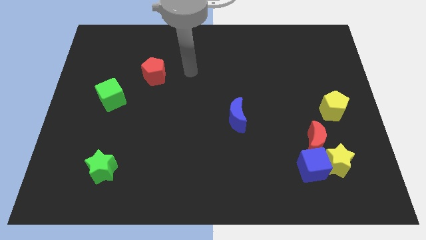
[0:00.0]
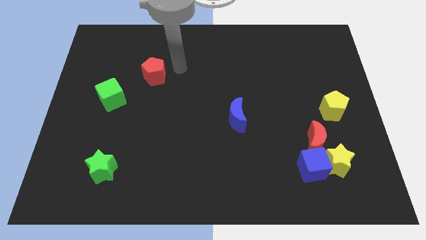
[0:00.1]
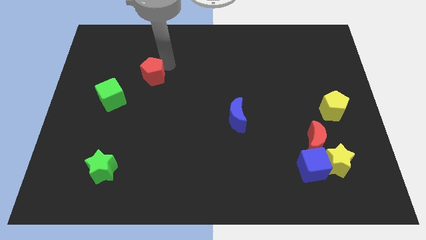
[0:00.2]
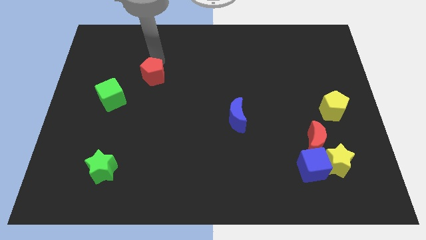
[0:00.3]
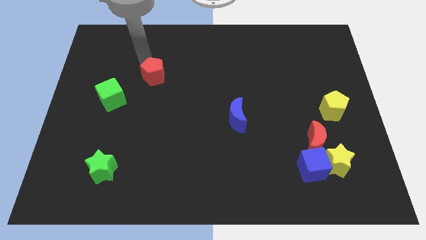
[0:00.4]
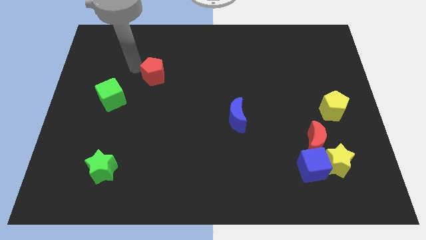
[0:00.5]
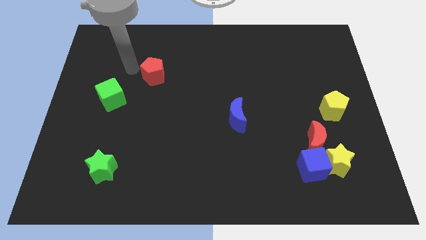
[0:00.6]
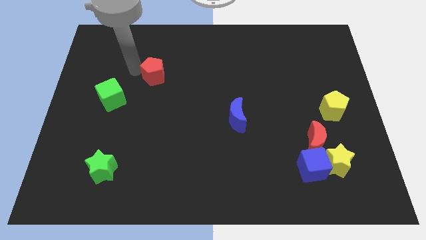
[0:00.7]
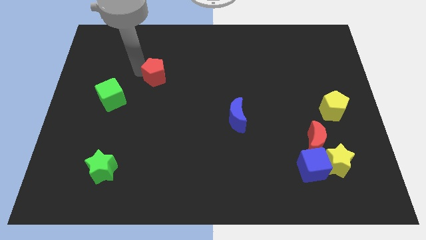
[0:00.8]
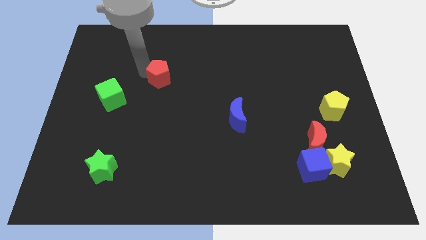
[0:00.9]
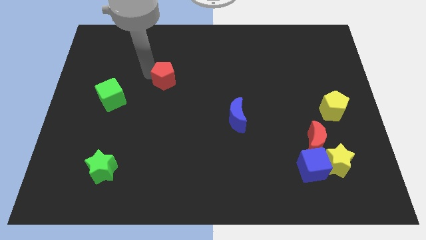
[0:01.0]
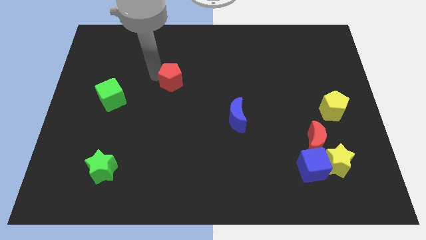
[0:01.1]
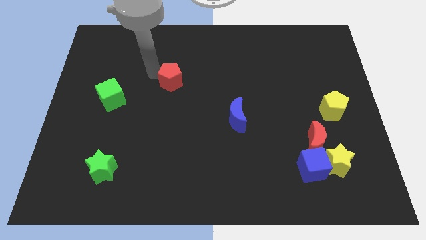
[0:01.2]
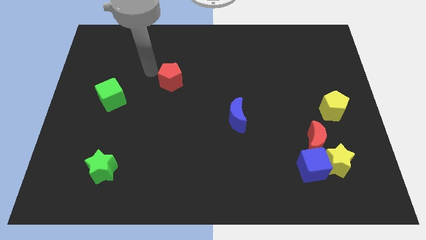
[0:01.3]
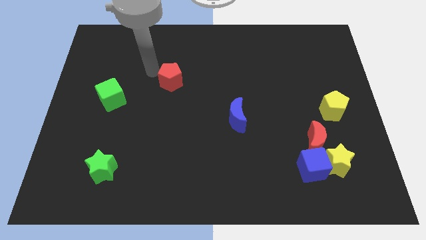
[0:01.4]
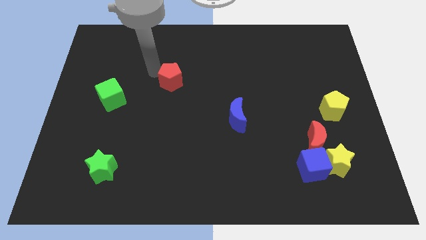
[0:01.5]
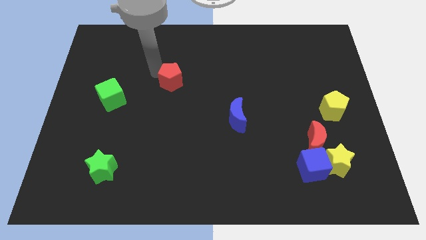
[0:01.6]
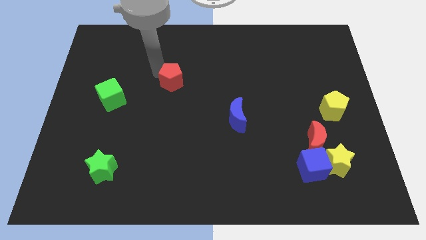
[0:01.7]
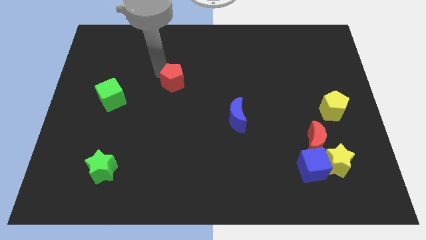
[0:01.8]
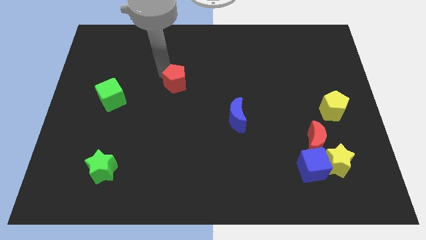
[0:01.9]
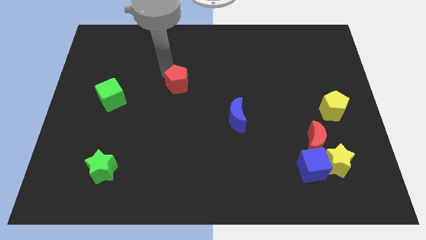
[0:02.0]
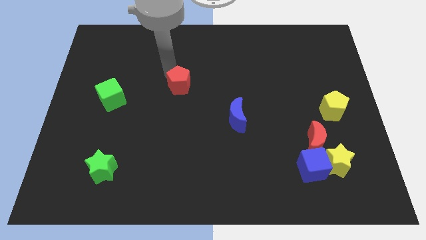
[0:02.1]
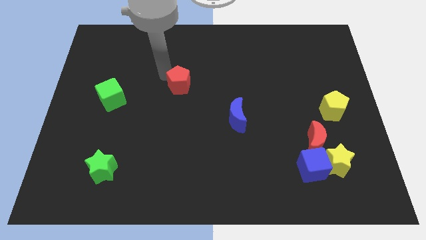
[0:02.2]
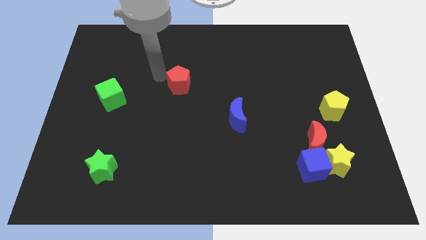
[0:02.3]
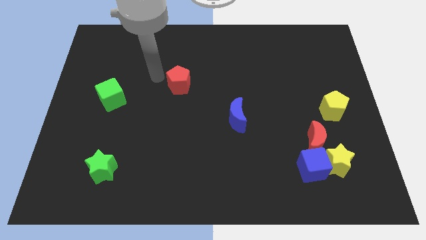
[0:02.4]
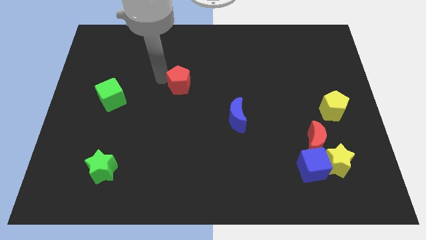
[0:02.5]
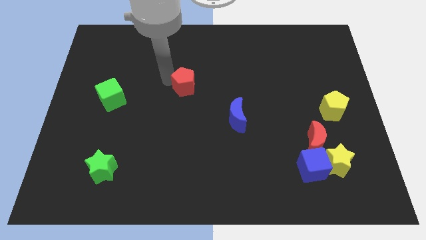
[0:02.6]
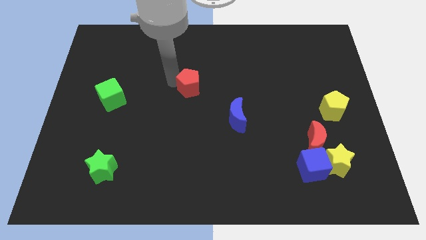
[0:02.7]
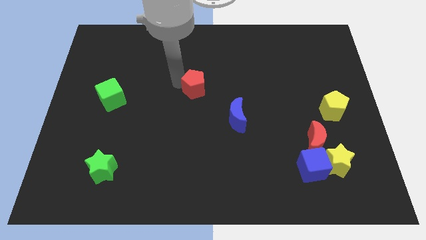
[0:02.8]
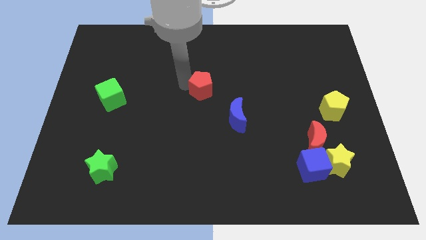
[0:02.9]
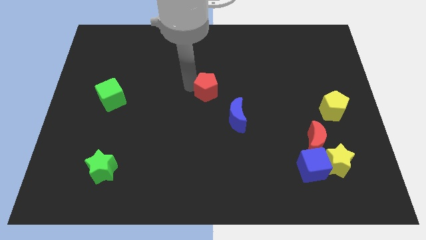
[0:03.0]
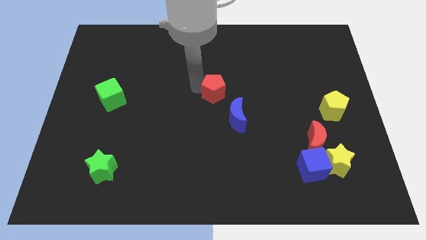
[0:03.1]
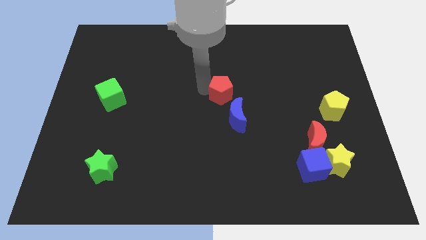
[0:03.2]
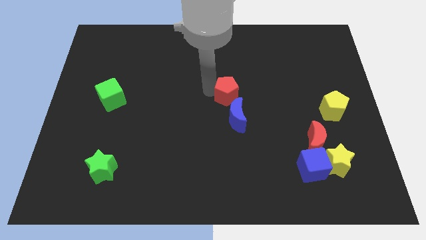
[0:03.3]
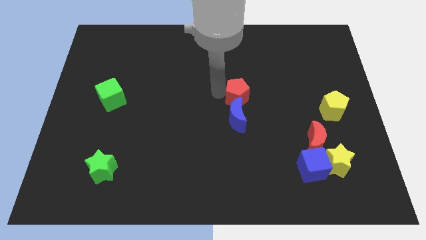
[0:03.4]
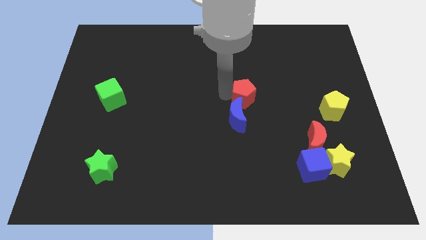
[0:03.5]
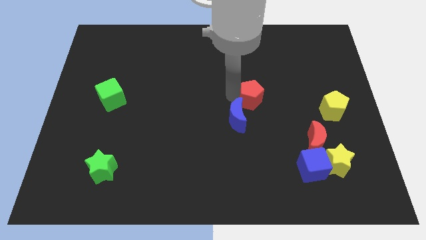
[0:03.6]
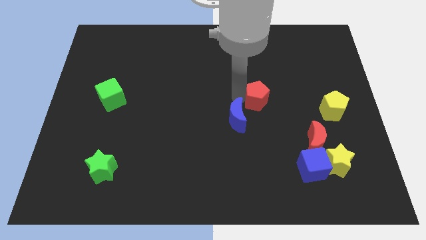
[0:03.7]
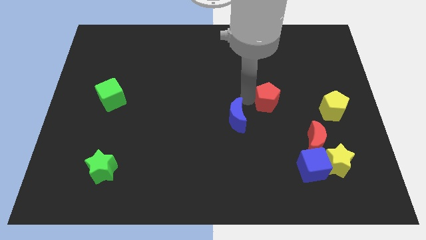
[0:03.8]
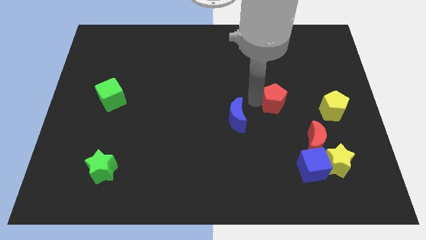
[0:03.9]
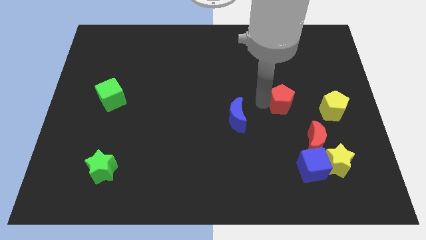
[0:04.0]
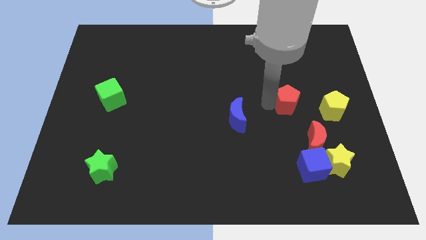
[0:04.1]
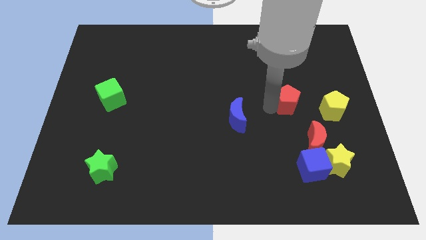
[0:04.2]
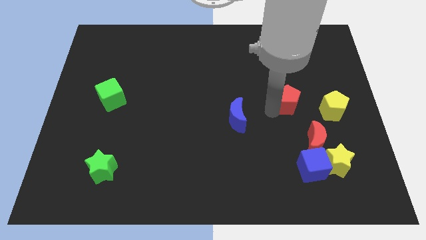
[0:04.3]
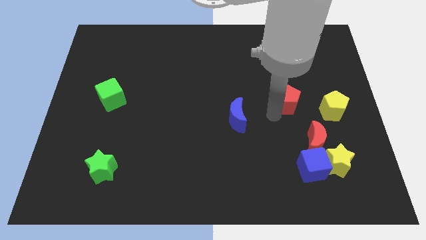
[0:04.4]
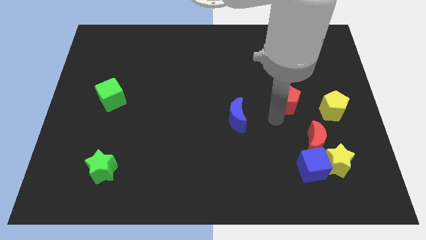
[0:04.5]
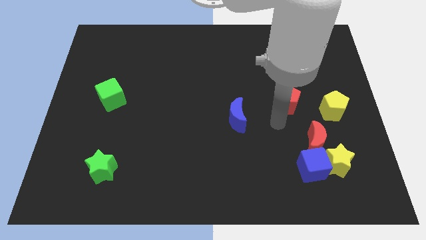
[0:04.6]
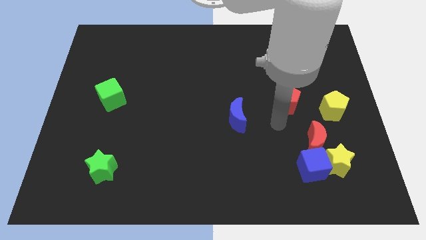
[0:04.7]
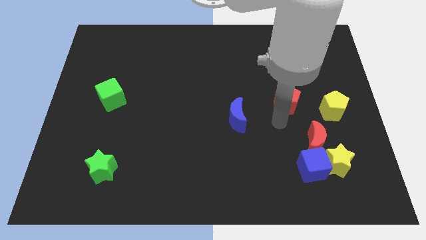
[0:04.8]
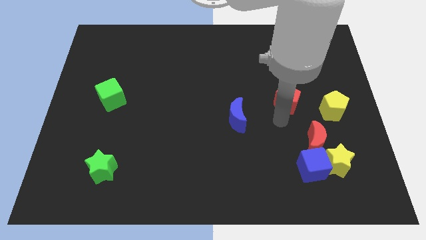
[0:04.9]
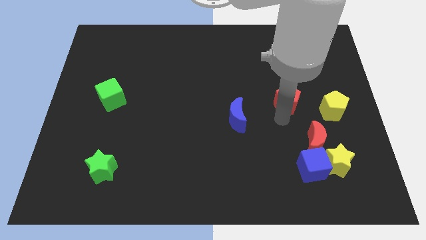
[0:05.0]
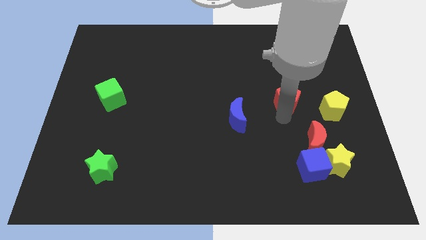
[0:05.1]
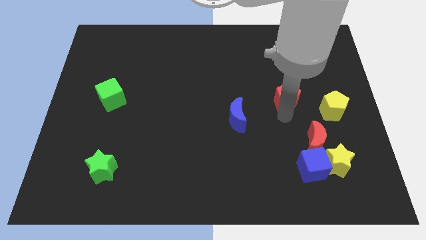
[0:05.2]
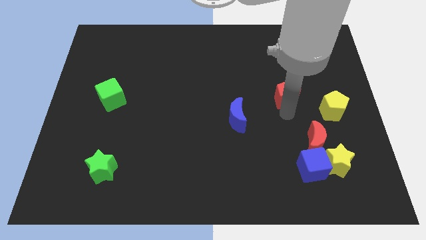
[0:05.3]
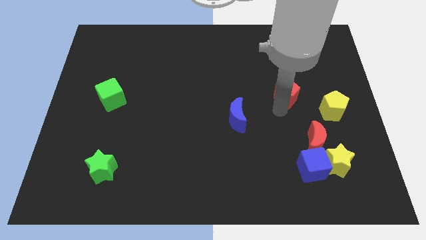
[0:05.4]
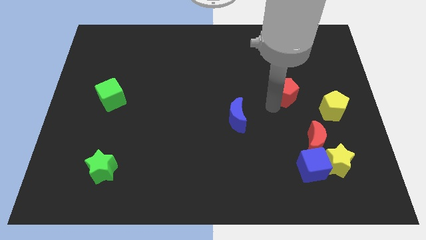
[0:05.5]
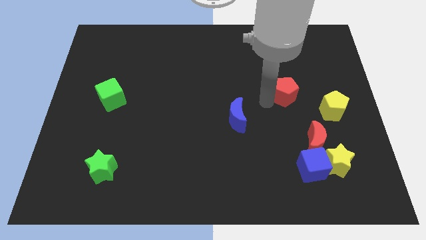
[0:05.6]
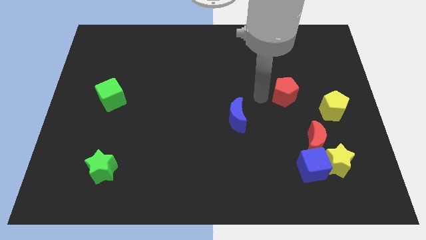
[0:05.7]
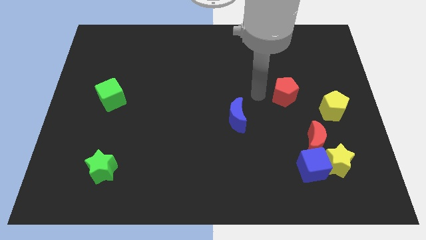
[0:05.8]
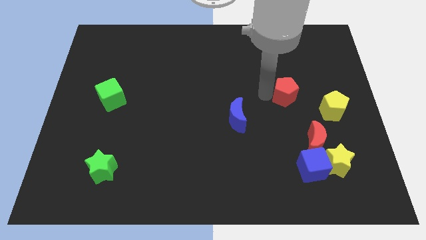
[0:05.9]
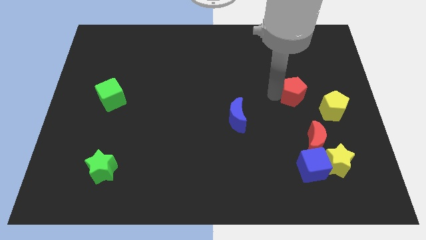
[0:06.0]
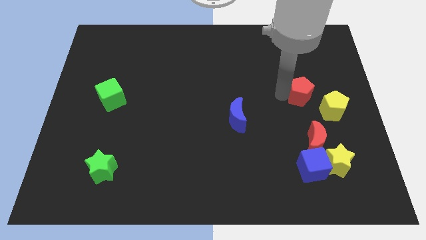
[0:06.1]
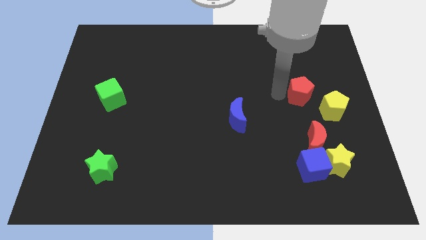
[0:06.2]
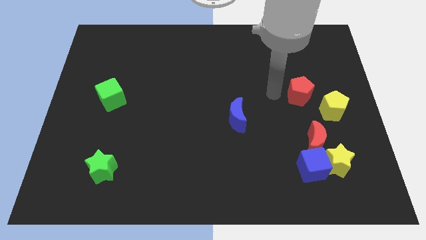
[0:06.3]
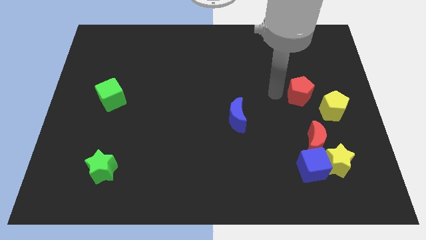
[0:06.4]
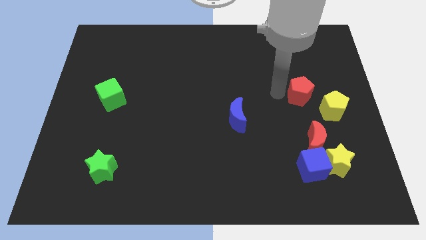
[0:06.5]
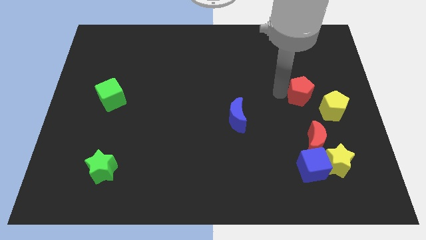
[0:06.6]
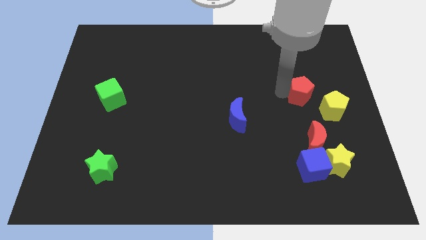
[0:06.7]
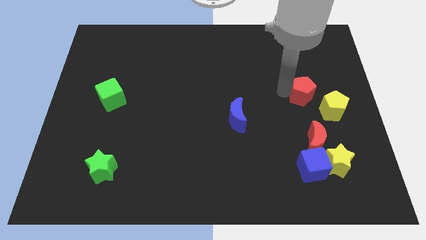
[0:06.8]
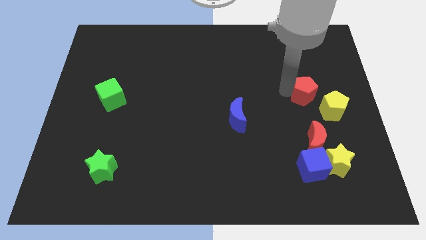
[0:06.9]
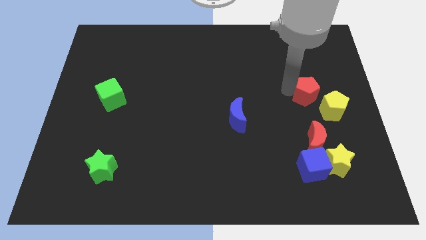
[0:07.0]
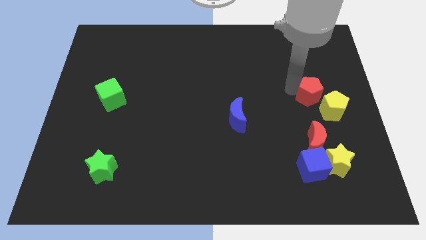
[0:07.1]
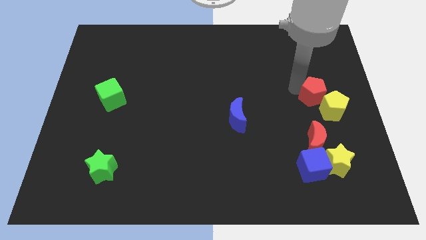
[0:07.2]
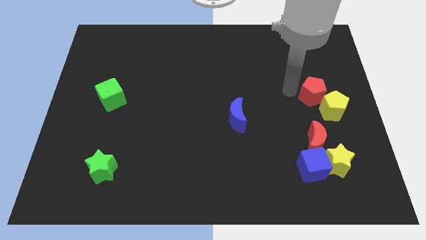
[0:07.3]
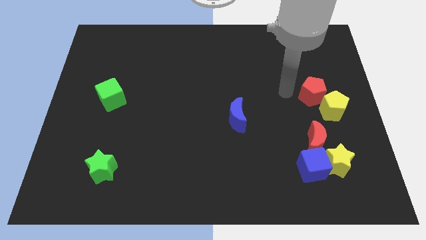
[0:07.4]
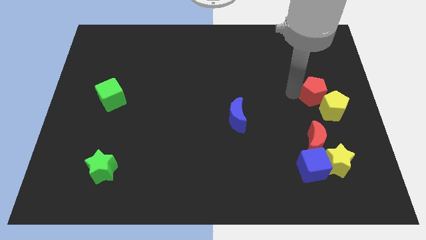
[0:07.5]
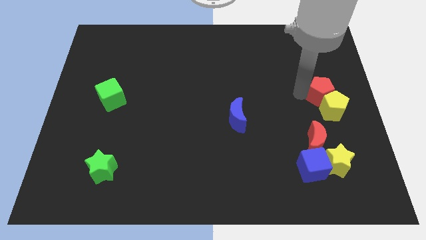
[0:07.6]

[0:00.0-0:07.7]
put the red pentagon to the right side of the board
